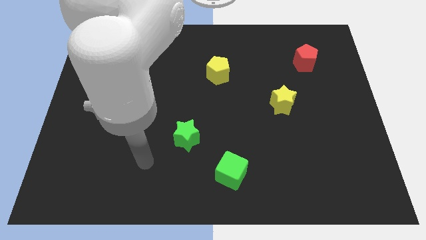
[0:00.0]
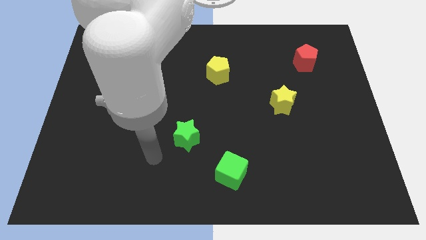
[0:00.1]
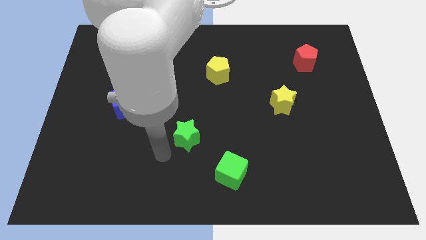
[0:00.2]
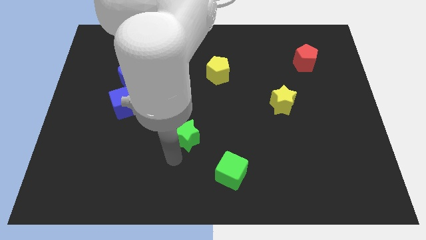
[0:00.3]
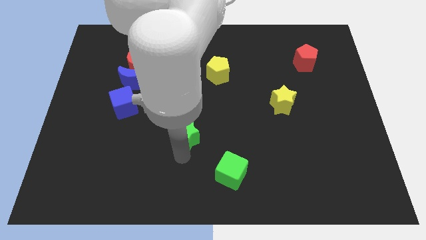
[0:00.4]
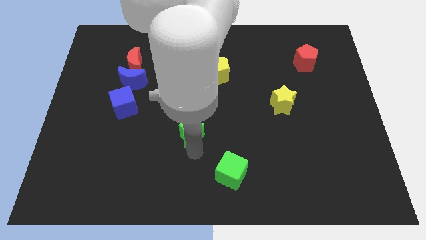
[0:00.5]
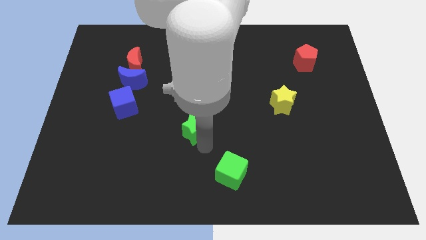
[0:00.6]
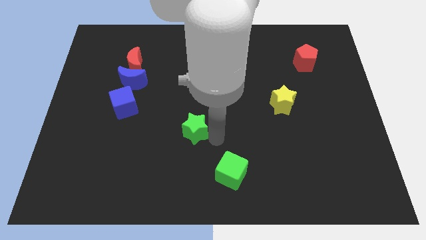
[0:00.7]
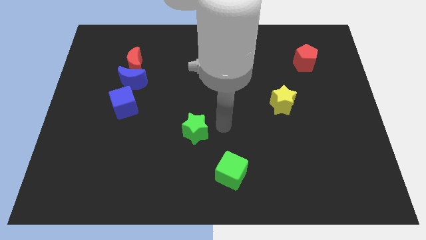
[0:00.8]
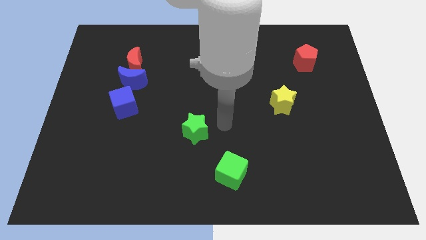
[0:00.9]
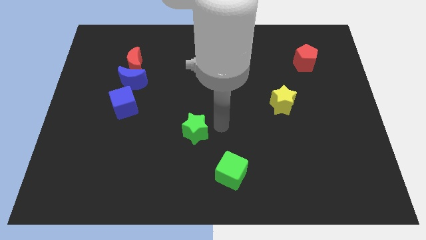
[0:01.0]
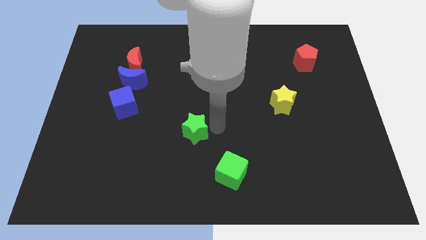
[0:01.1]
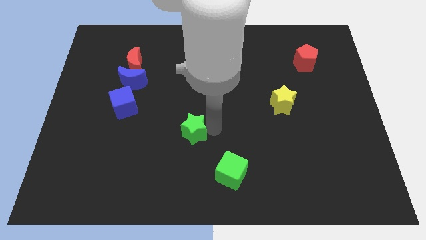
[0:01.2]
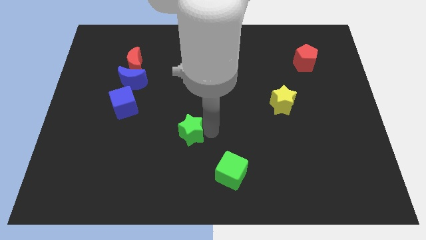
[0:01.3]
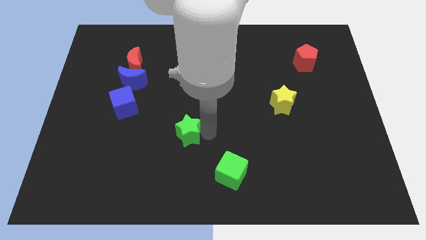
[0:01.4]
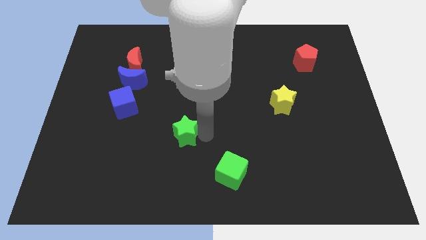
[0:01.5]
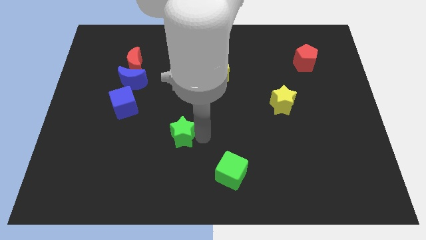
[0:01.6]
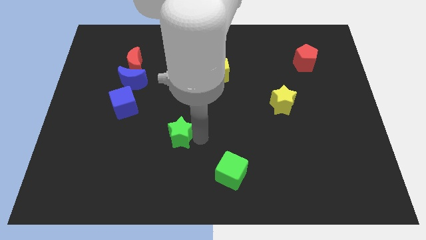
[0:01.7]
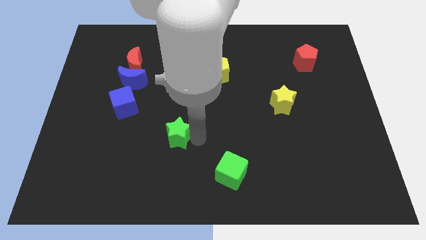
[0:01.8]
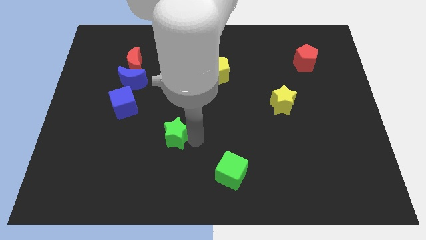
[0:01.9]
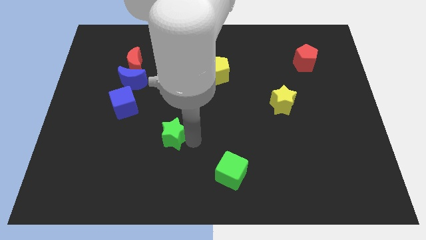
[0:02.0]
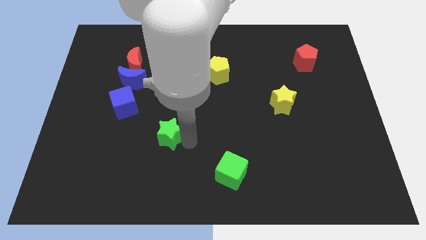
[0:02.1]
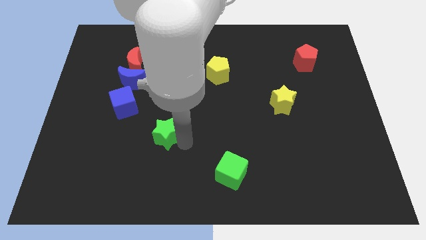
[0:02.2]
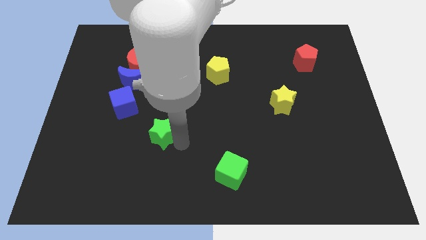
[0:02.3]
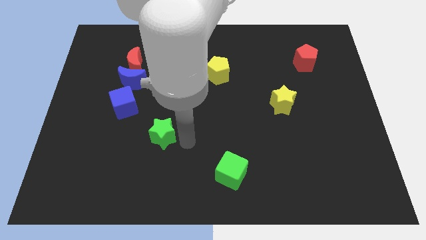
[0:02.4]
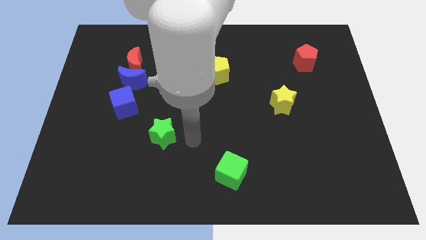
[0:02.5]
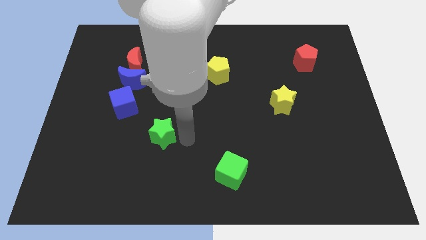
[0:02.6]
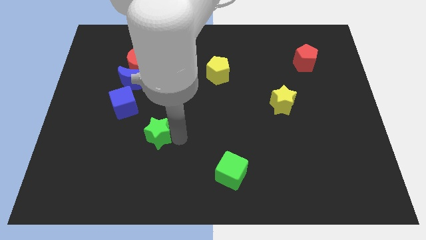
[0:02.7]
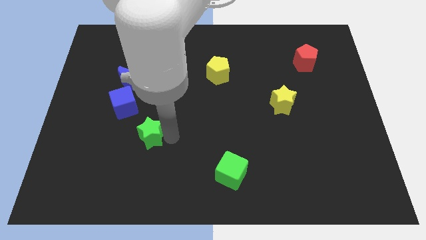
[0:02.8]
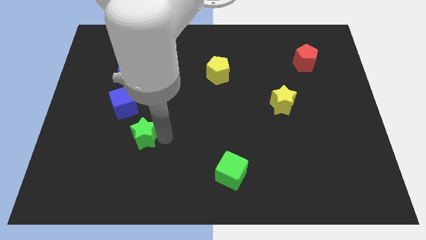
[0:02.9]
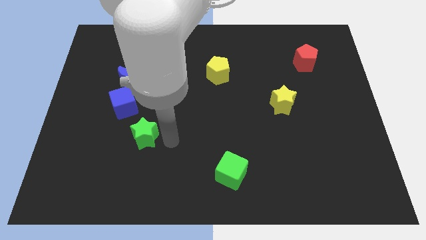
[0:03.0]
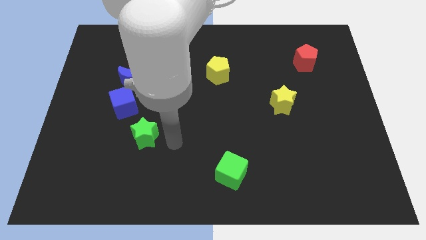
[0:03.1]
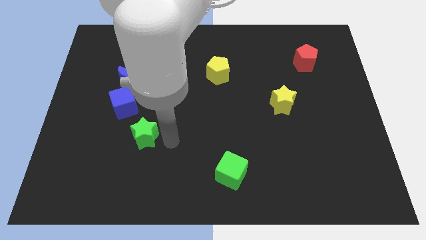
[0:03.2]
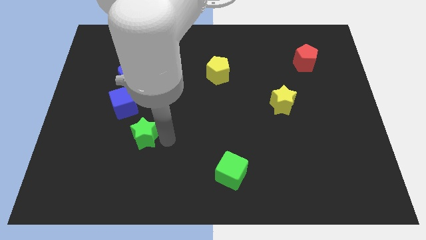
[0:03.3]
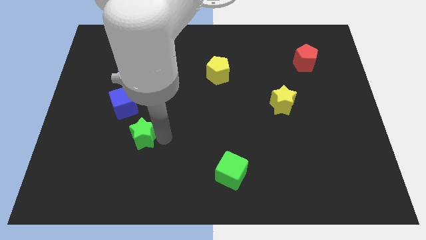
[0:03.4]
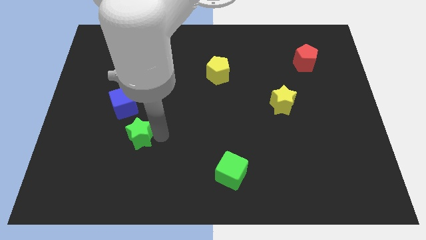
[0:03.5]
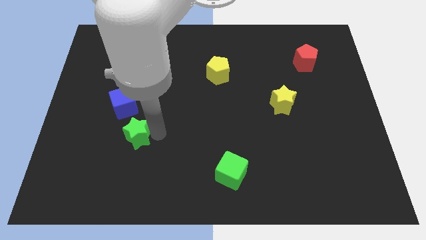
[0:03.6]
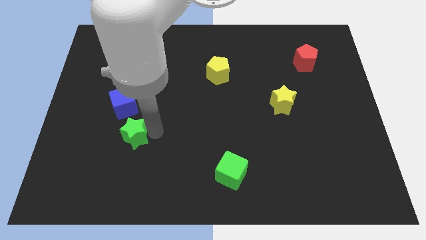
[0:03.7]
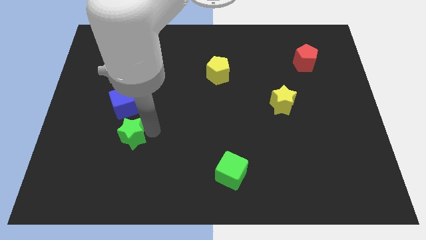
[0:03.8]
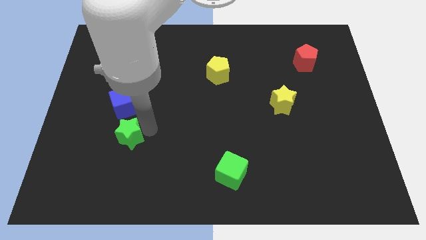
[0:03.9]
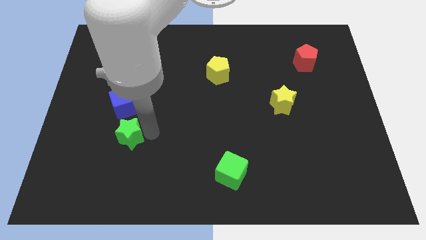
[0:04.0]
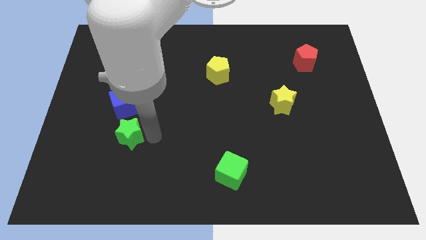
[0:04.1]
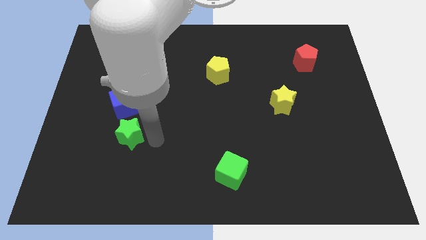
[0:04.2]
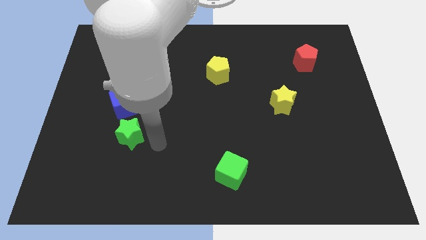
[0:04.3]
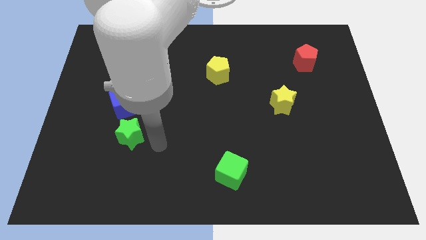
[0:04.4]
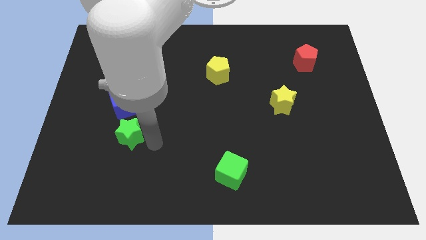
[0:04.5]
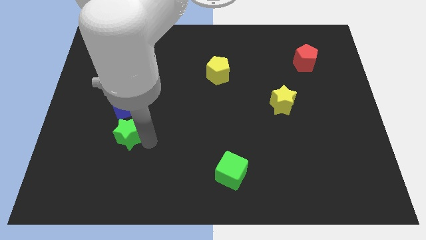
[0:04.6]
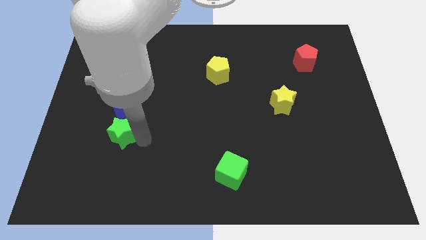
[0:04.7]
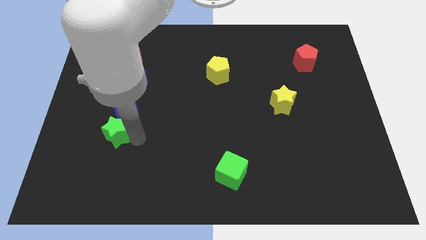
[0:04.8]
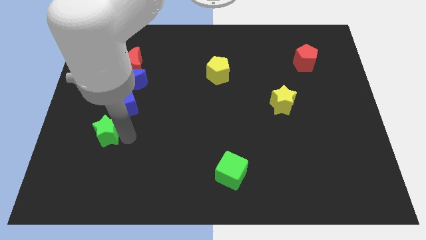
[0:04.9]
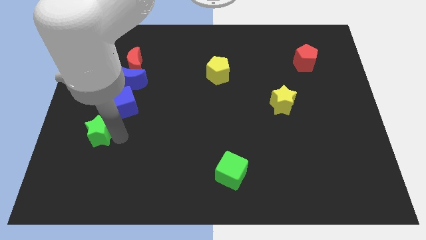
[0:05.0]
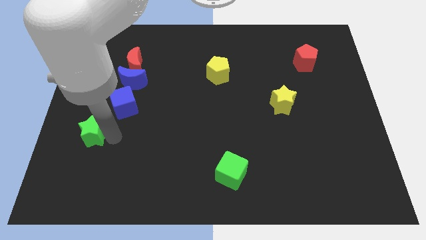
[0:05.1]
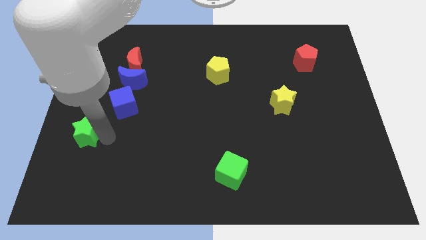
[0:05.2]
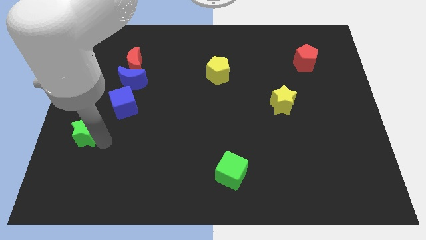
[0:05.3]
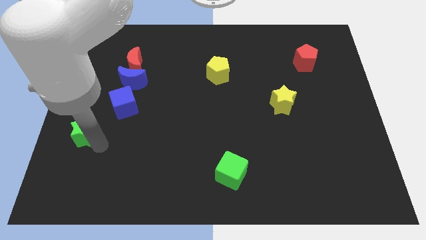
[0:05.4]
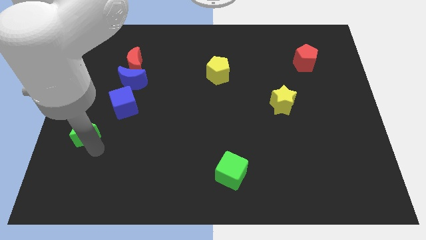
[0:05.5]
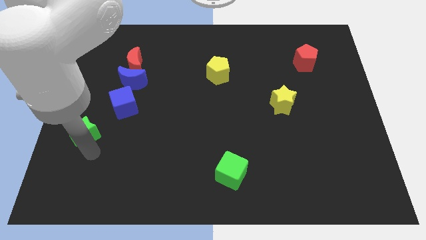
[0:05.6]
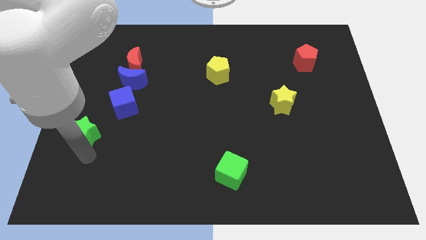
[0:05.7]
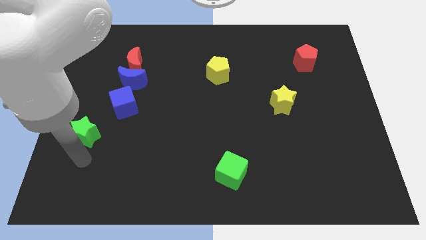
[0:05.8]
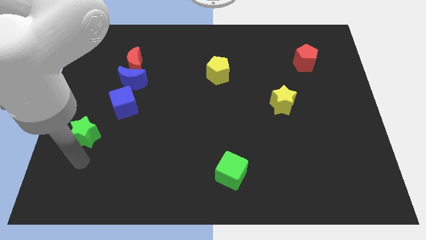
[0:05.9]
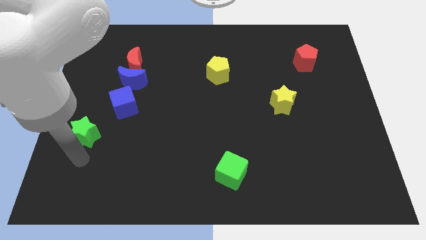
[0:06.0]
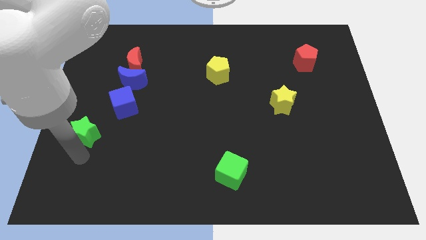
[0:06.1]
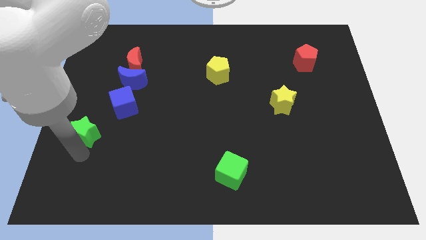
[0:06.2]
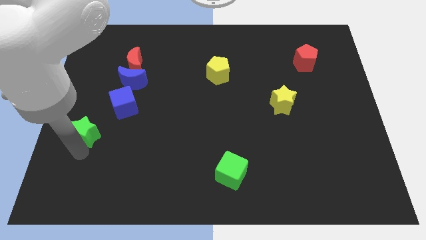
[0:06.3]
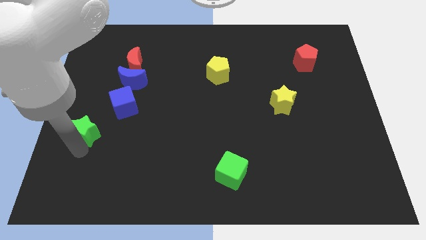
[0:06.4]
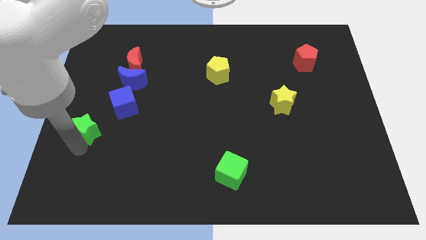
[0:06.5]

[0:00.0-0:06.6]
put the green star to the left side
